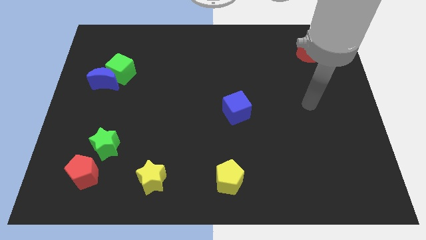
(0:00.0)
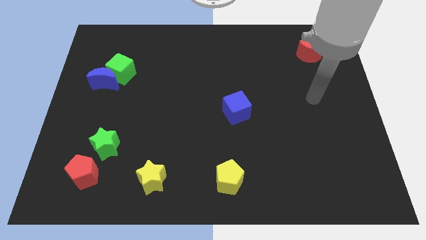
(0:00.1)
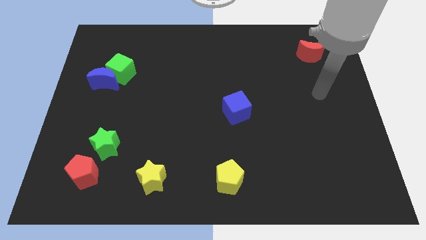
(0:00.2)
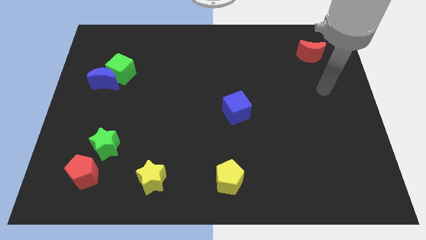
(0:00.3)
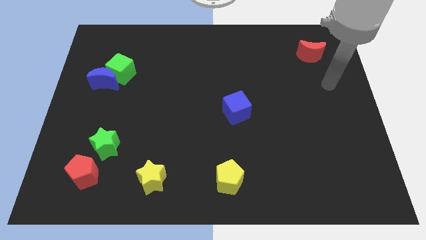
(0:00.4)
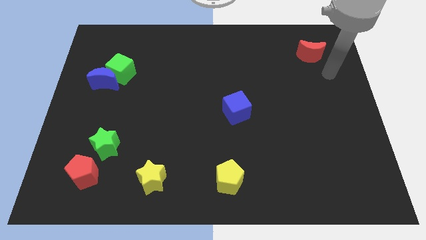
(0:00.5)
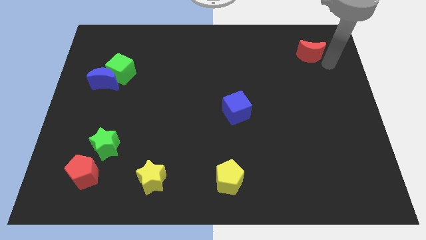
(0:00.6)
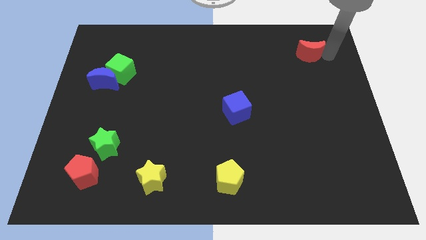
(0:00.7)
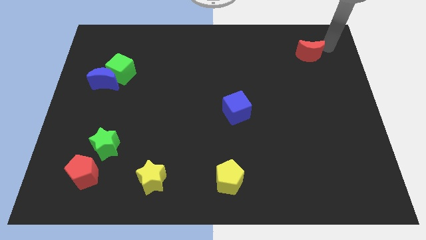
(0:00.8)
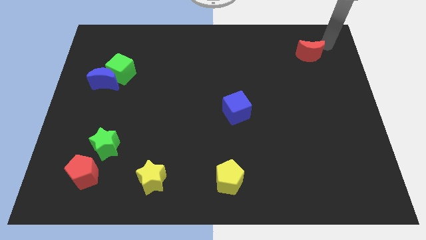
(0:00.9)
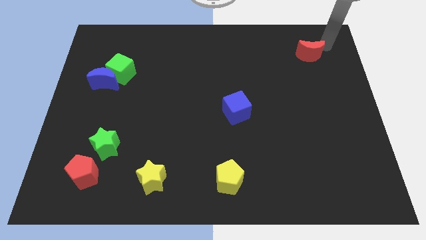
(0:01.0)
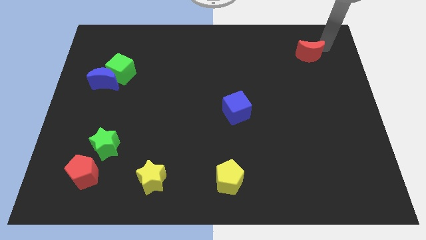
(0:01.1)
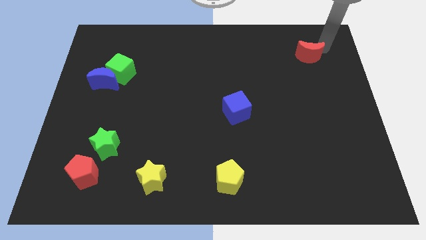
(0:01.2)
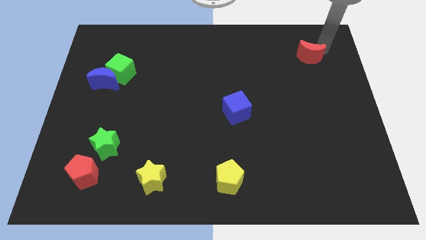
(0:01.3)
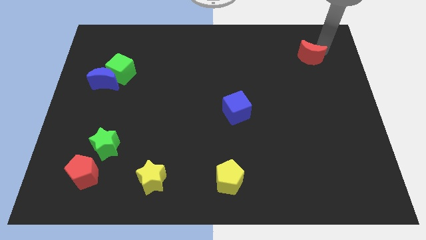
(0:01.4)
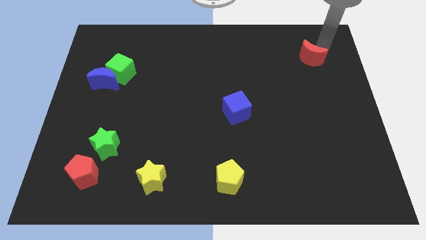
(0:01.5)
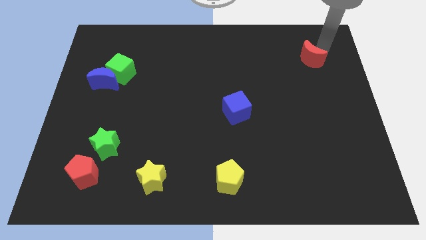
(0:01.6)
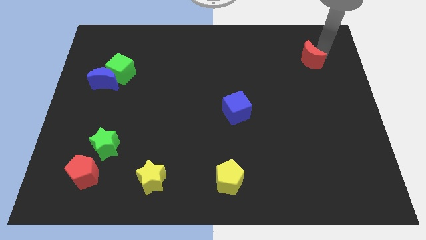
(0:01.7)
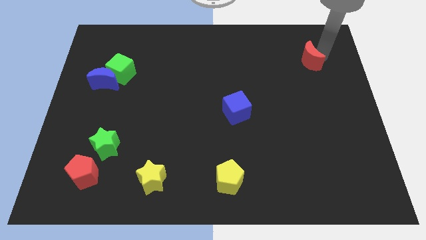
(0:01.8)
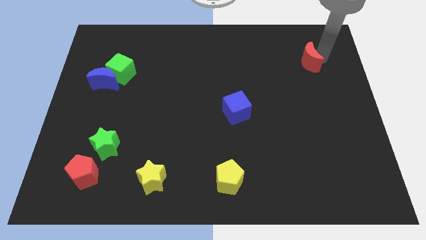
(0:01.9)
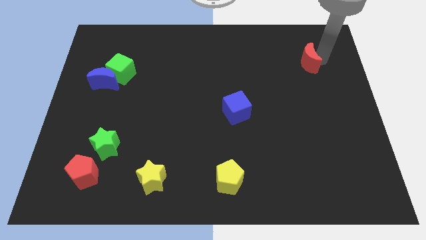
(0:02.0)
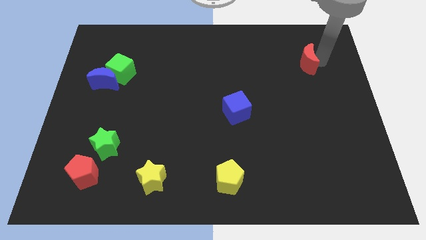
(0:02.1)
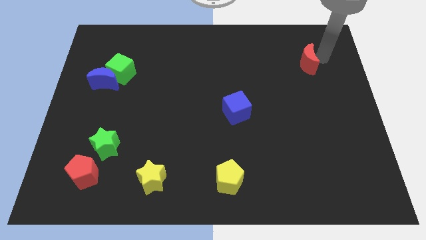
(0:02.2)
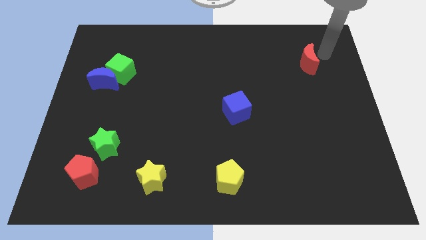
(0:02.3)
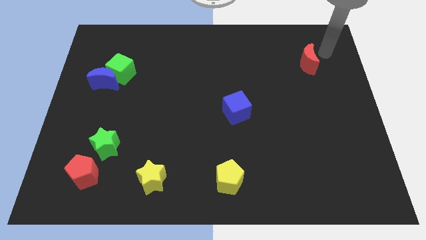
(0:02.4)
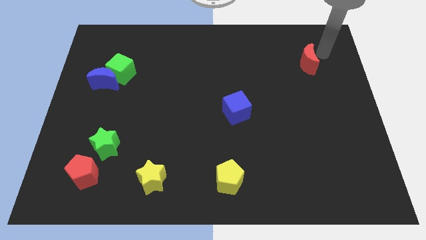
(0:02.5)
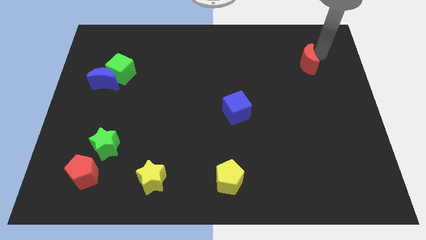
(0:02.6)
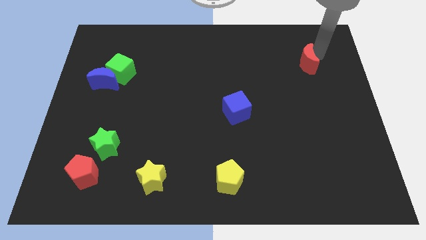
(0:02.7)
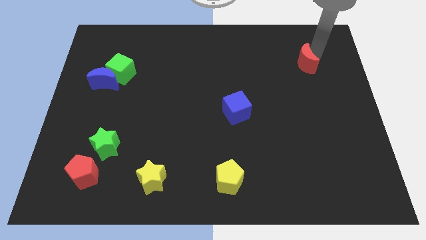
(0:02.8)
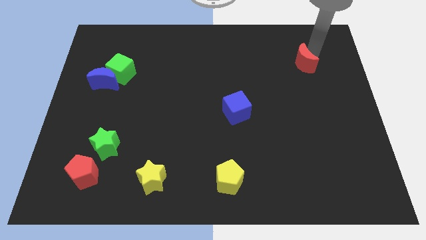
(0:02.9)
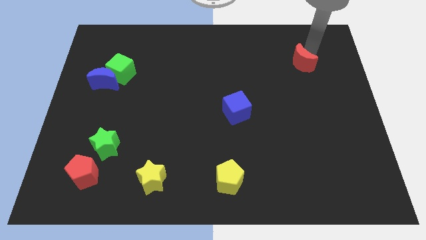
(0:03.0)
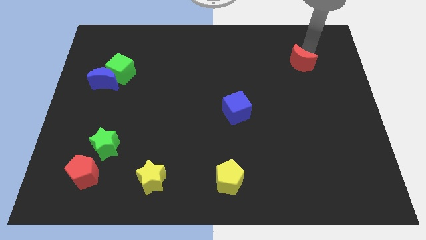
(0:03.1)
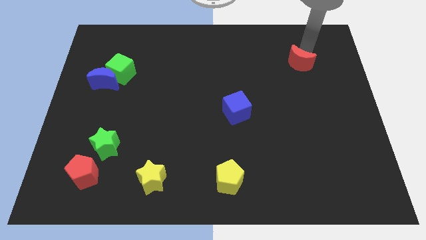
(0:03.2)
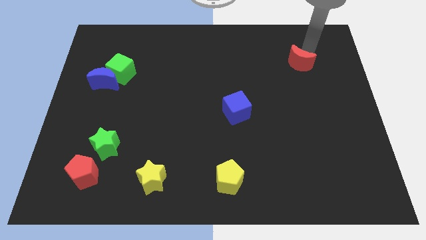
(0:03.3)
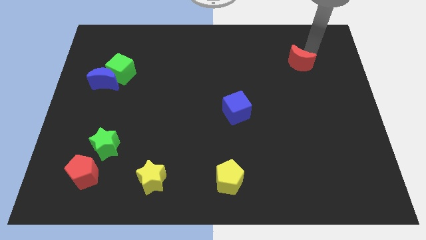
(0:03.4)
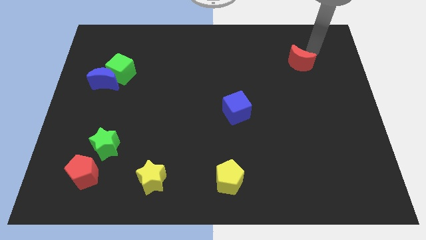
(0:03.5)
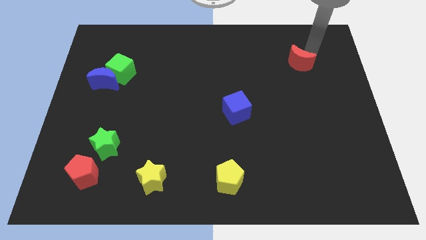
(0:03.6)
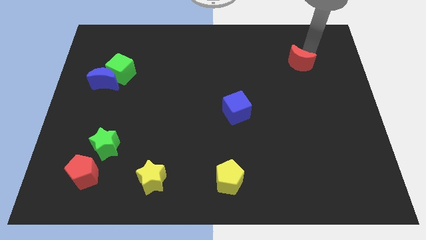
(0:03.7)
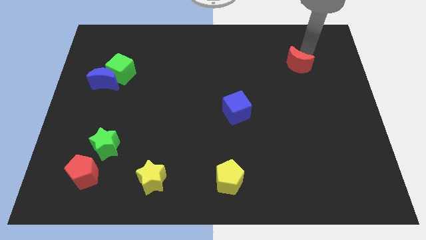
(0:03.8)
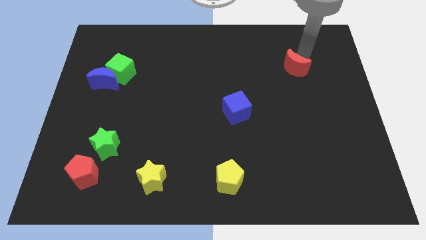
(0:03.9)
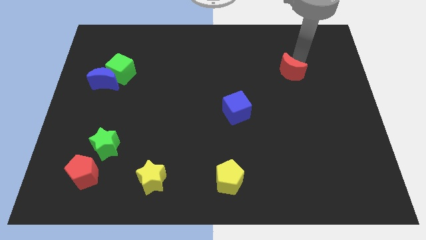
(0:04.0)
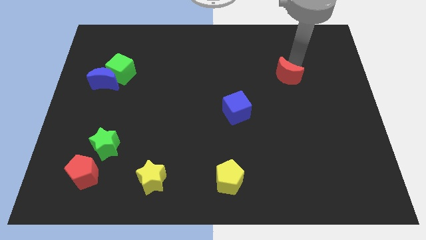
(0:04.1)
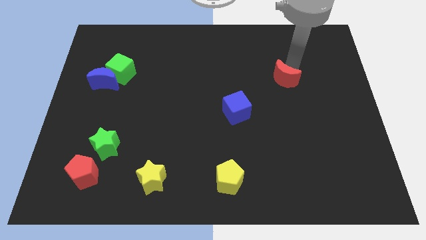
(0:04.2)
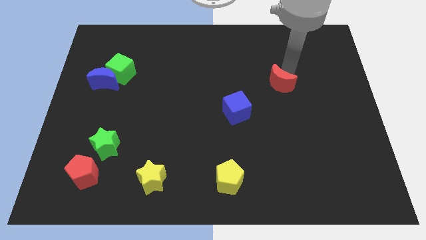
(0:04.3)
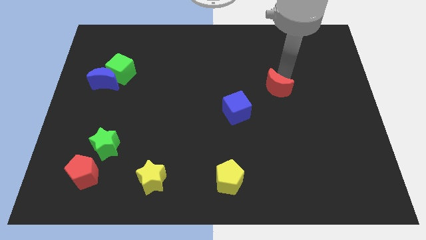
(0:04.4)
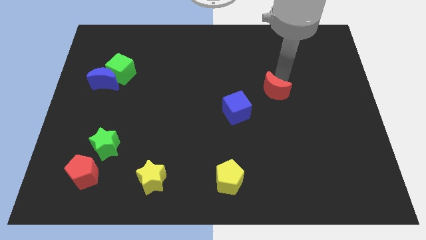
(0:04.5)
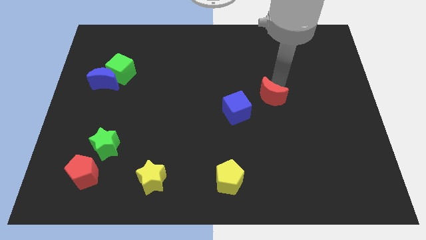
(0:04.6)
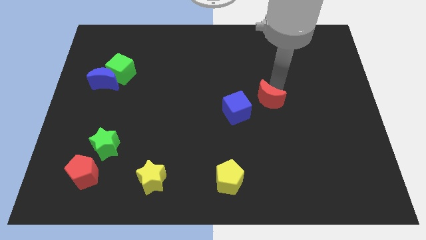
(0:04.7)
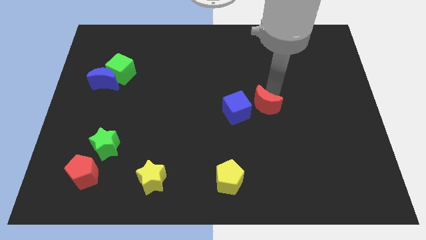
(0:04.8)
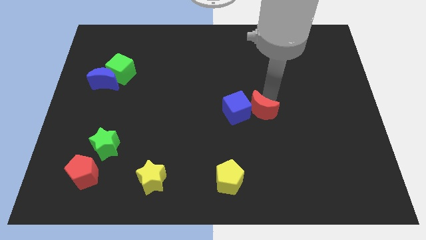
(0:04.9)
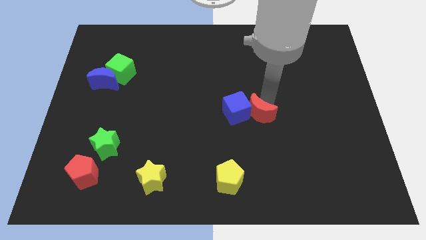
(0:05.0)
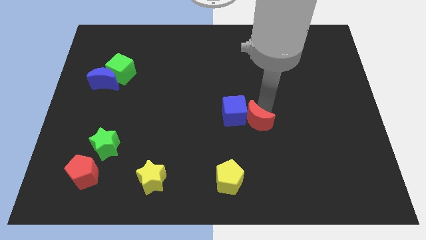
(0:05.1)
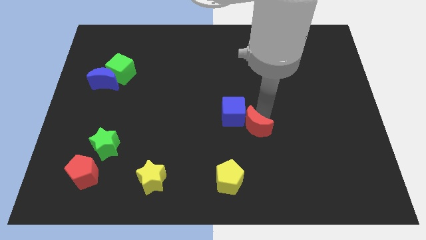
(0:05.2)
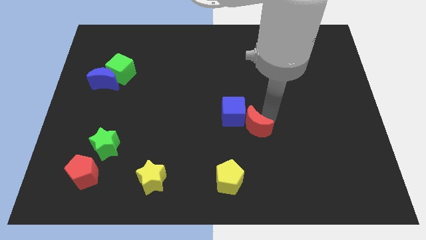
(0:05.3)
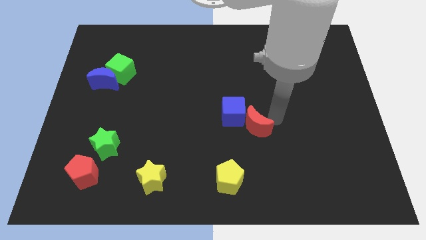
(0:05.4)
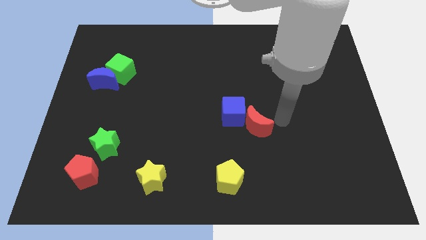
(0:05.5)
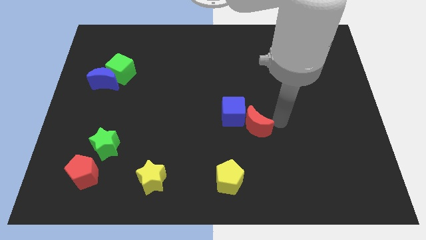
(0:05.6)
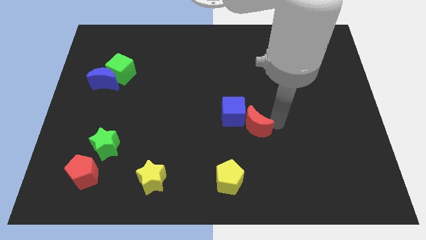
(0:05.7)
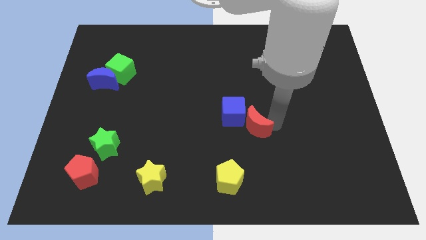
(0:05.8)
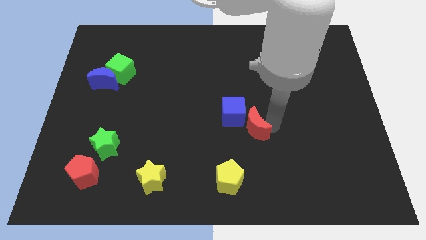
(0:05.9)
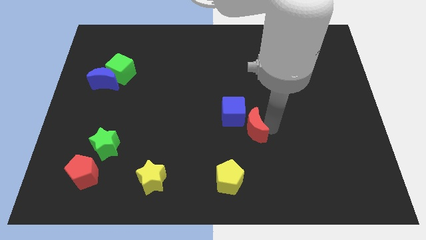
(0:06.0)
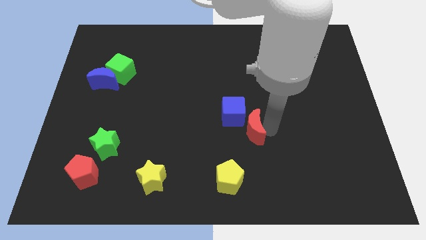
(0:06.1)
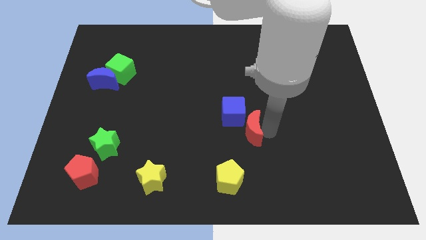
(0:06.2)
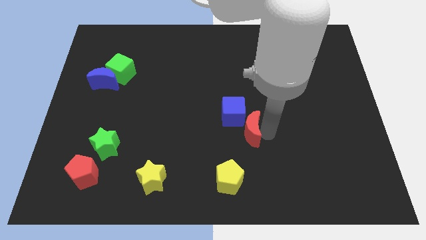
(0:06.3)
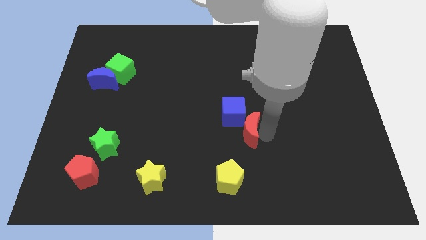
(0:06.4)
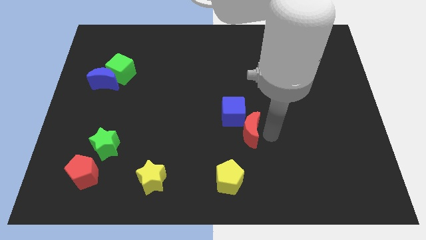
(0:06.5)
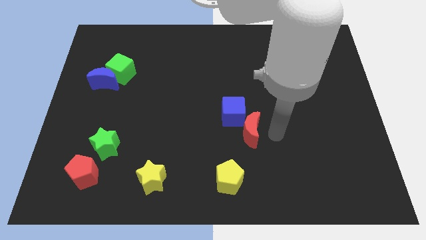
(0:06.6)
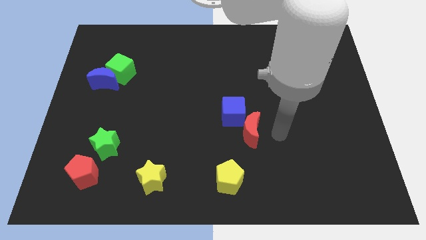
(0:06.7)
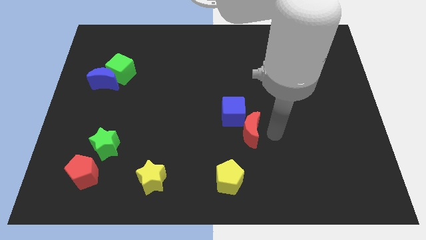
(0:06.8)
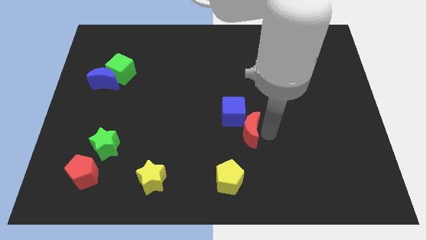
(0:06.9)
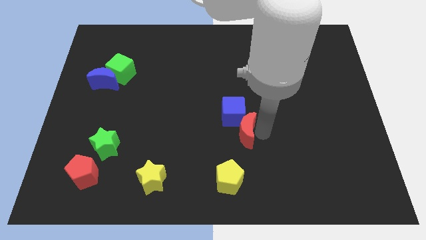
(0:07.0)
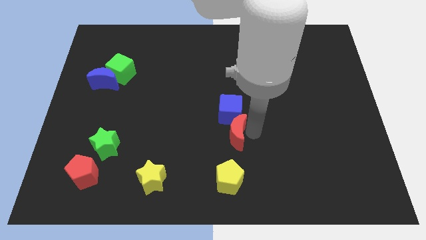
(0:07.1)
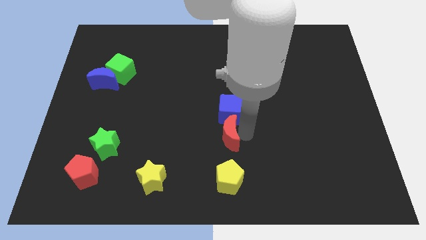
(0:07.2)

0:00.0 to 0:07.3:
slide the red moon to the bottom left side of the blue cube
